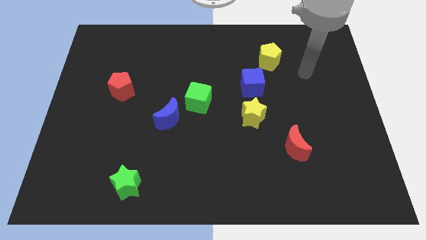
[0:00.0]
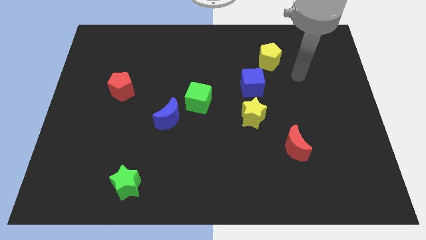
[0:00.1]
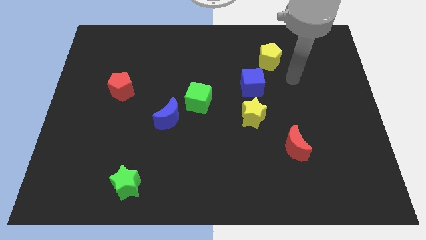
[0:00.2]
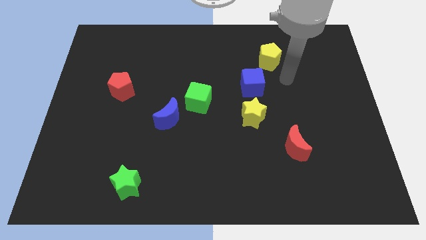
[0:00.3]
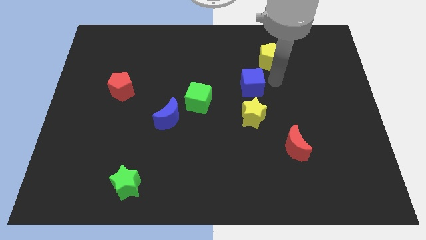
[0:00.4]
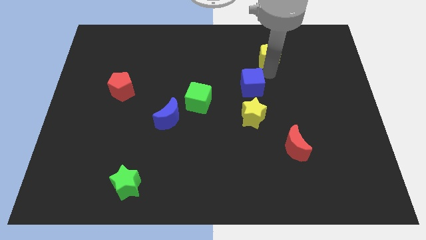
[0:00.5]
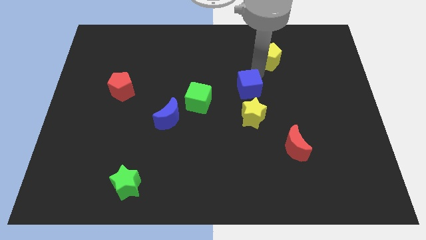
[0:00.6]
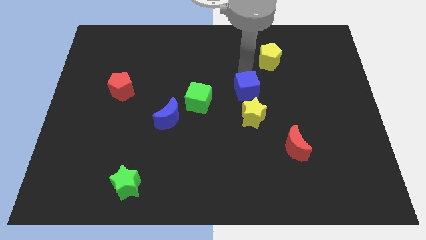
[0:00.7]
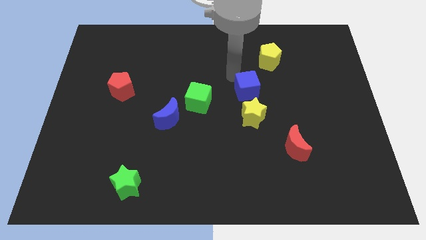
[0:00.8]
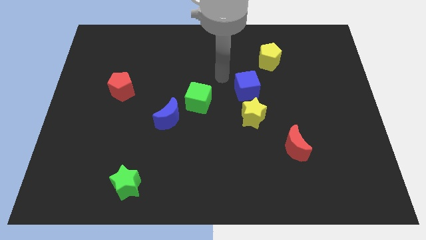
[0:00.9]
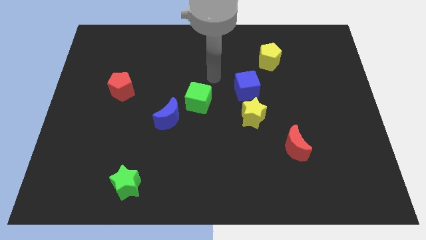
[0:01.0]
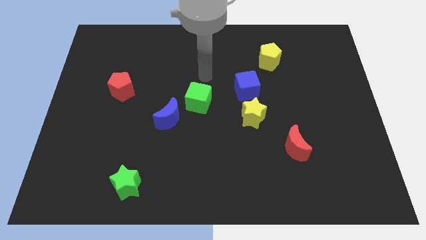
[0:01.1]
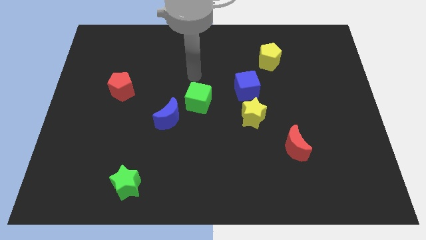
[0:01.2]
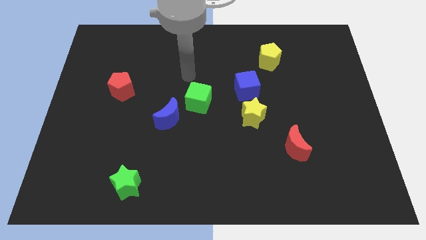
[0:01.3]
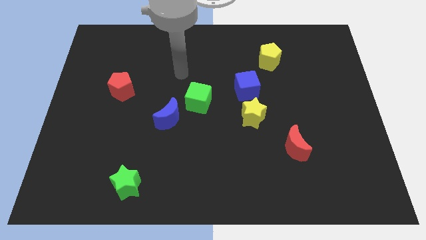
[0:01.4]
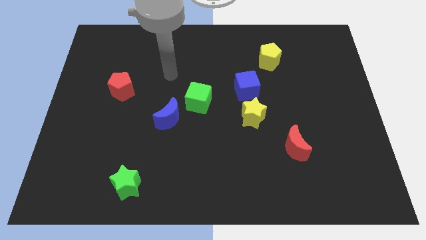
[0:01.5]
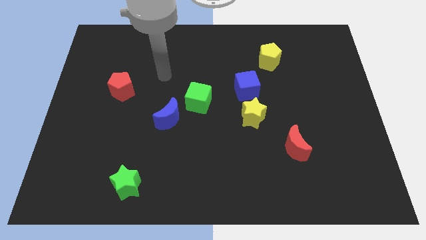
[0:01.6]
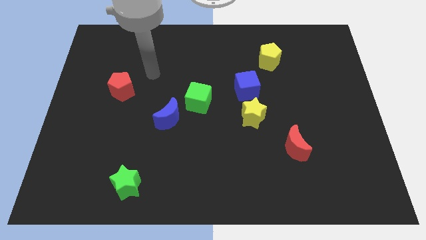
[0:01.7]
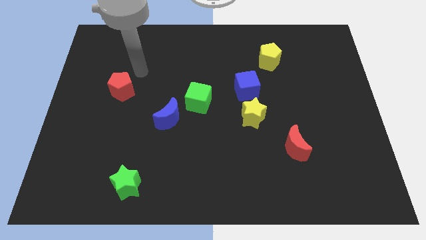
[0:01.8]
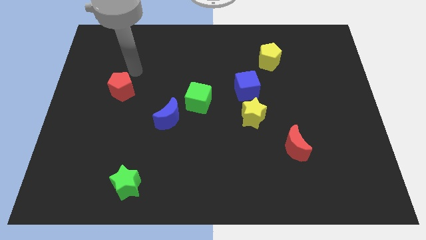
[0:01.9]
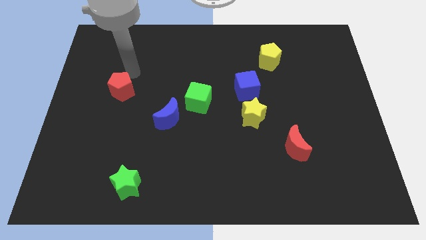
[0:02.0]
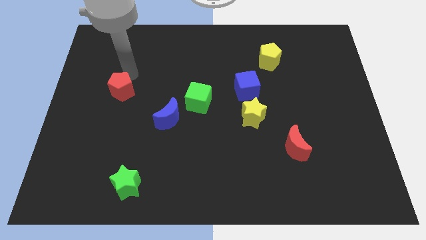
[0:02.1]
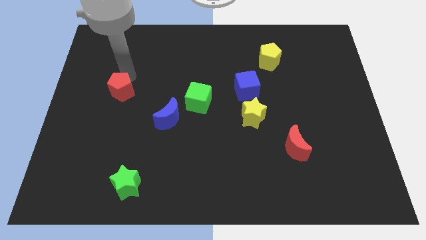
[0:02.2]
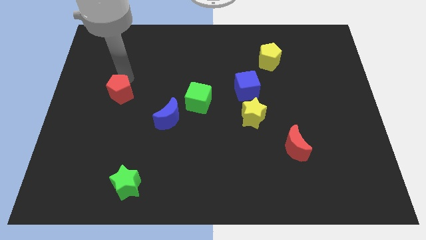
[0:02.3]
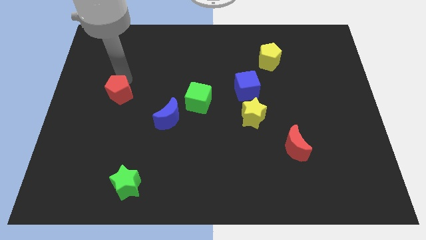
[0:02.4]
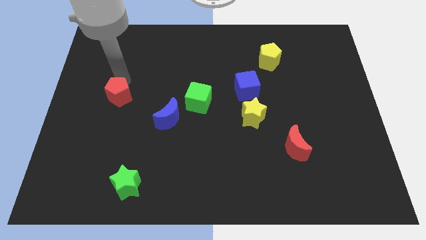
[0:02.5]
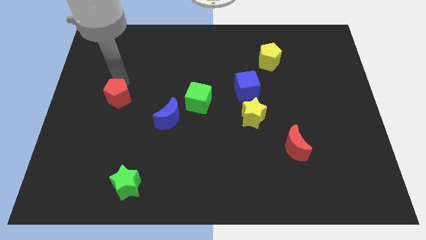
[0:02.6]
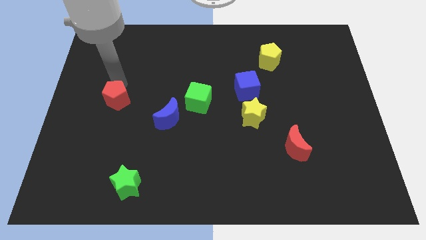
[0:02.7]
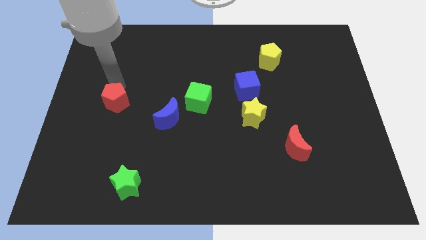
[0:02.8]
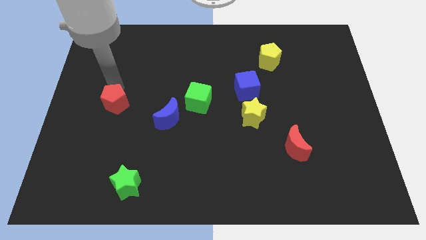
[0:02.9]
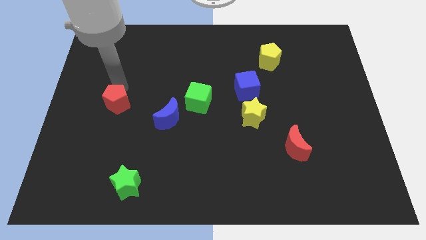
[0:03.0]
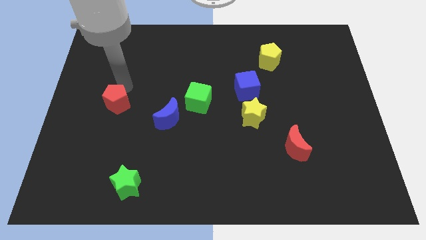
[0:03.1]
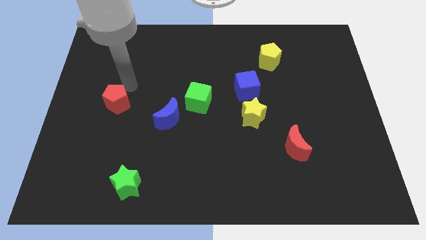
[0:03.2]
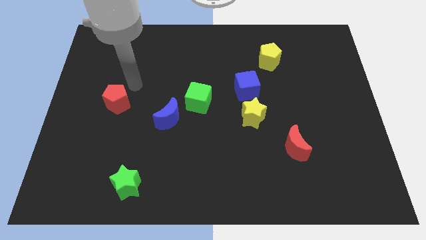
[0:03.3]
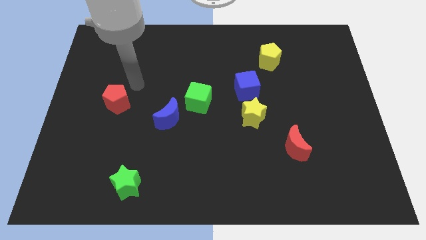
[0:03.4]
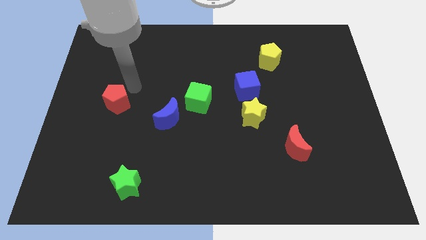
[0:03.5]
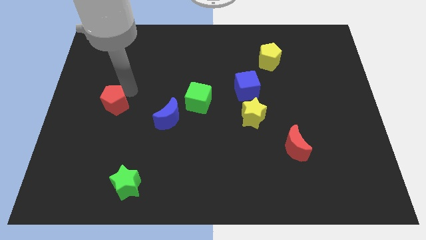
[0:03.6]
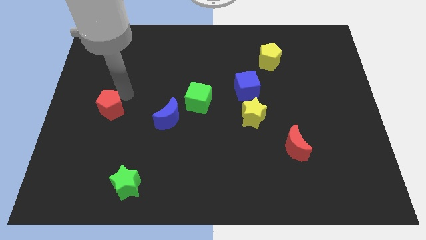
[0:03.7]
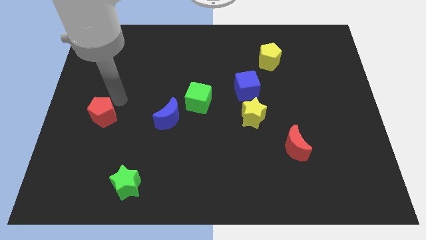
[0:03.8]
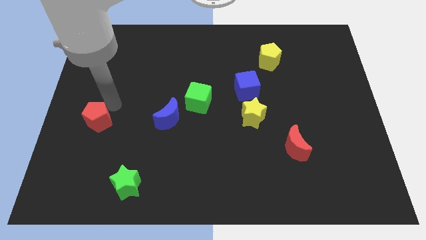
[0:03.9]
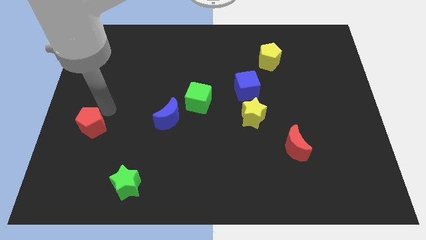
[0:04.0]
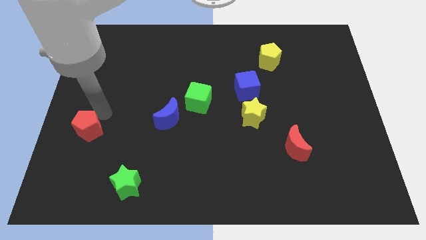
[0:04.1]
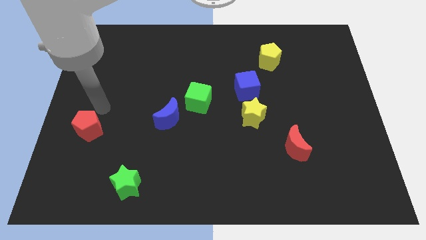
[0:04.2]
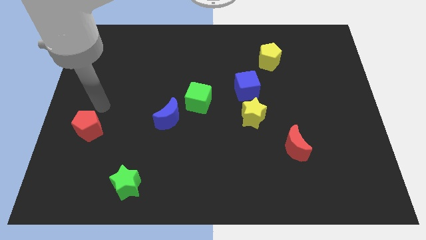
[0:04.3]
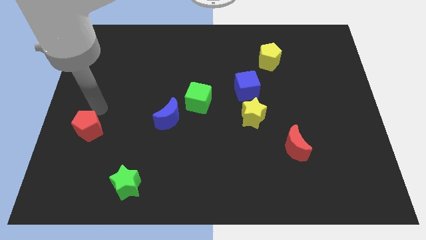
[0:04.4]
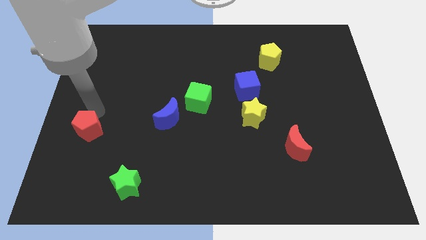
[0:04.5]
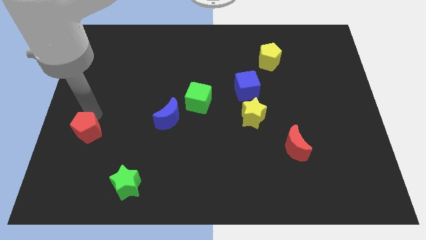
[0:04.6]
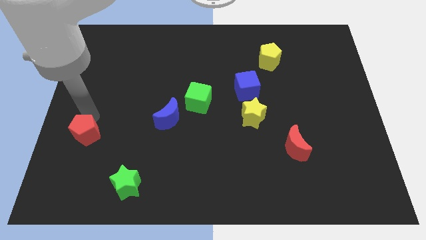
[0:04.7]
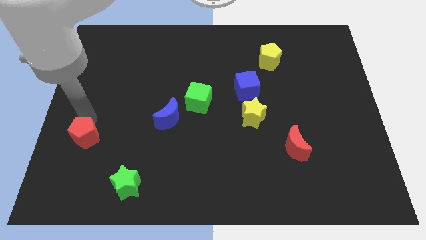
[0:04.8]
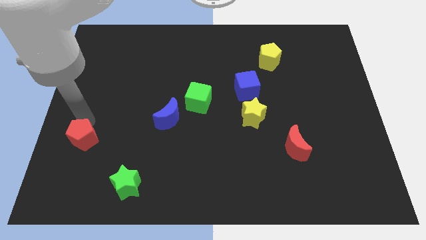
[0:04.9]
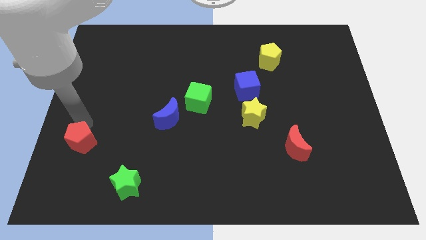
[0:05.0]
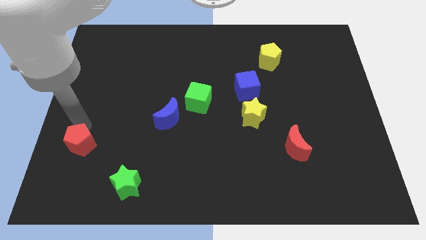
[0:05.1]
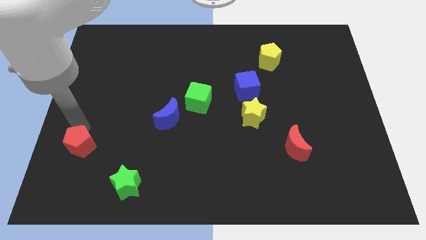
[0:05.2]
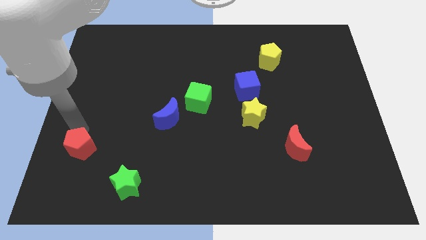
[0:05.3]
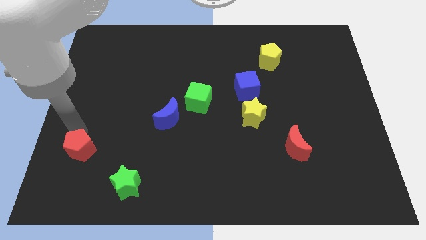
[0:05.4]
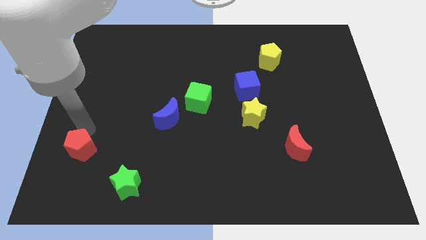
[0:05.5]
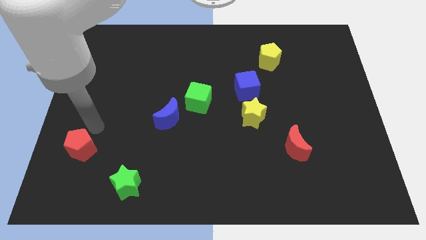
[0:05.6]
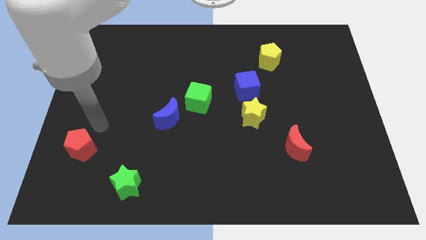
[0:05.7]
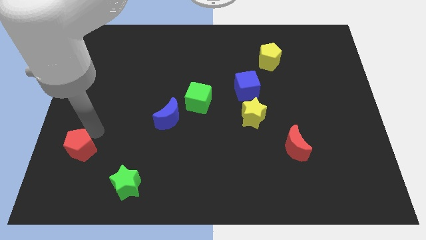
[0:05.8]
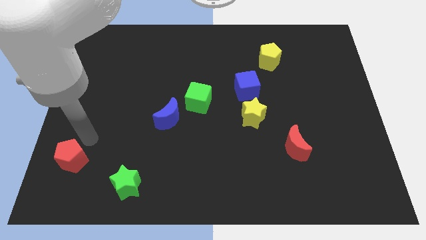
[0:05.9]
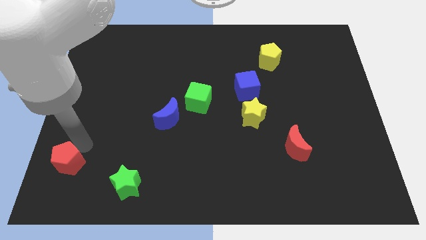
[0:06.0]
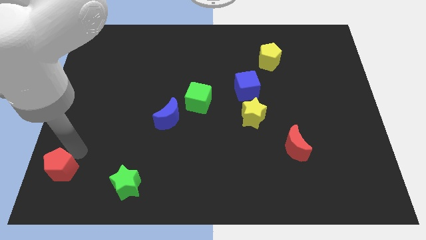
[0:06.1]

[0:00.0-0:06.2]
move the red pentagon to the bottom left
